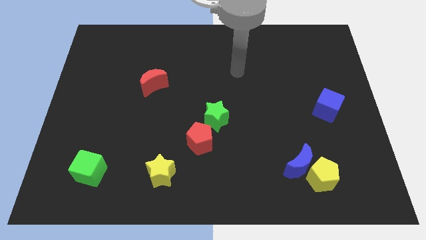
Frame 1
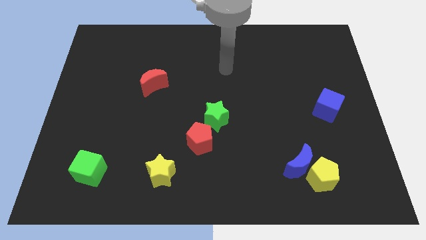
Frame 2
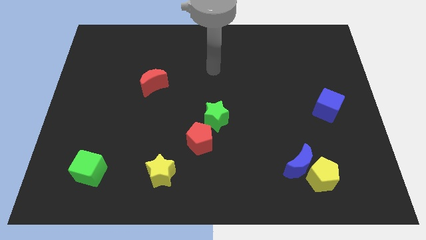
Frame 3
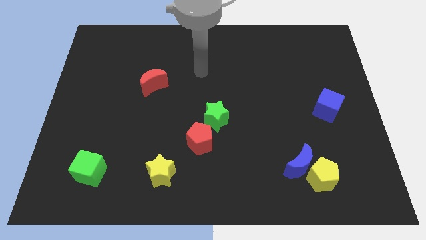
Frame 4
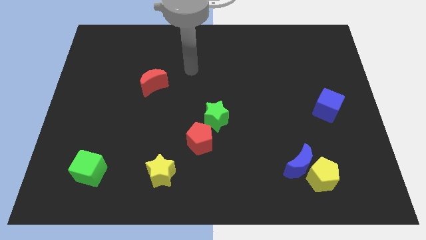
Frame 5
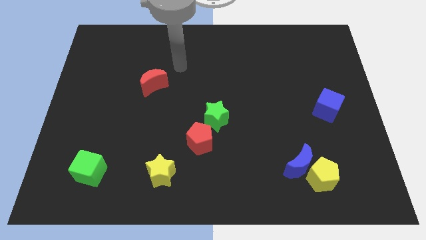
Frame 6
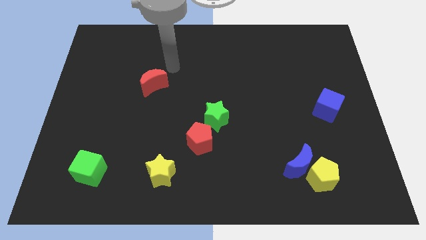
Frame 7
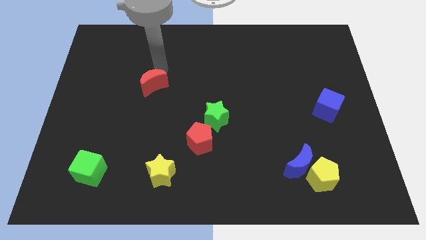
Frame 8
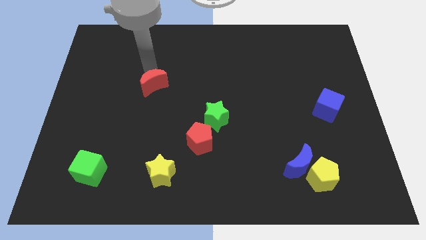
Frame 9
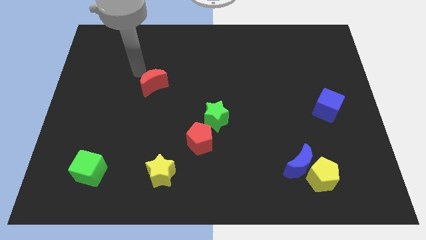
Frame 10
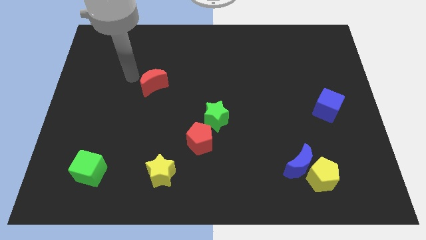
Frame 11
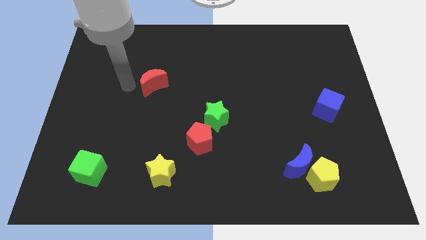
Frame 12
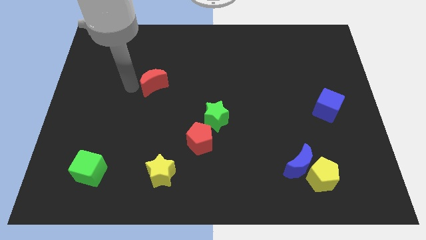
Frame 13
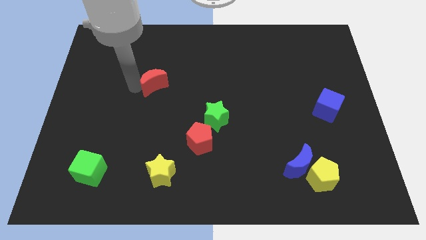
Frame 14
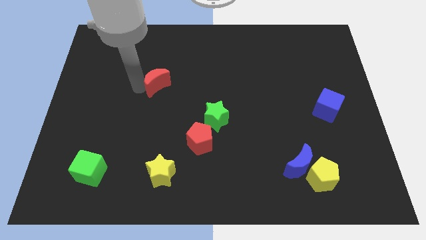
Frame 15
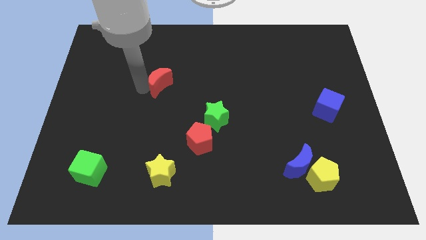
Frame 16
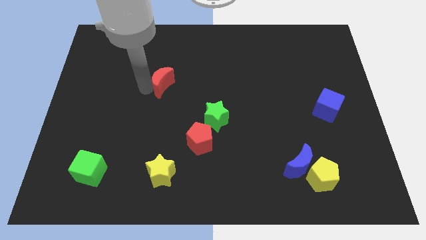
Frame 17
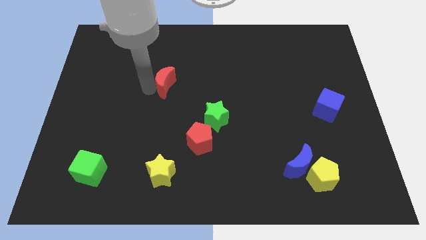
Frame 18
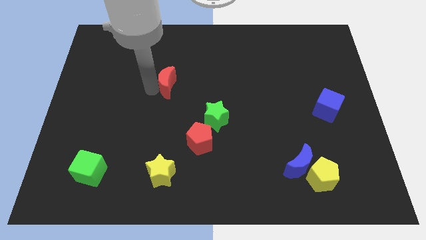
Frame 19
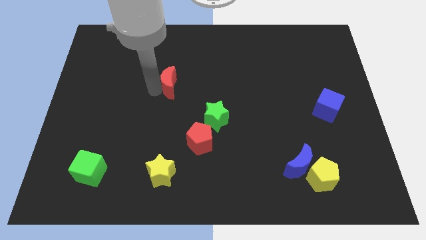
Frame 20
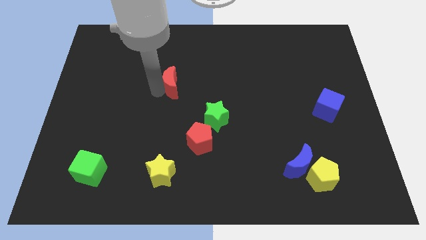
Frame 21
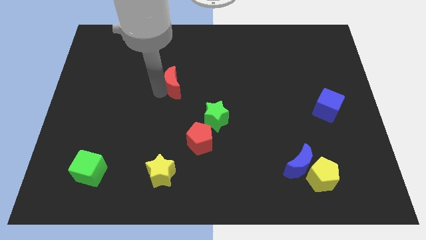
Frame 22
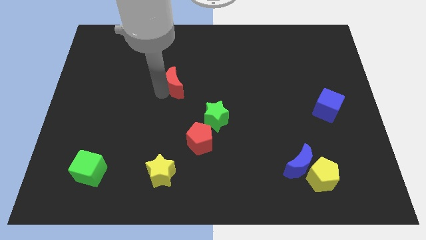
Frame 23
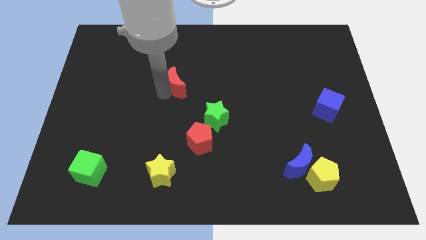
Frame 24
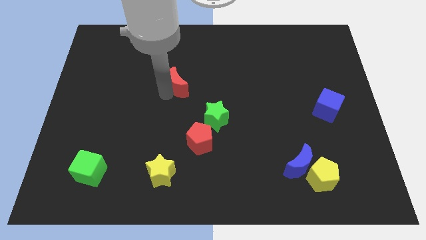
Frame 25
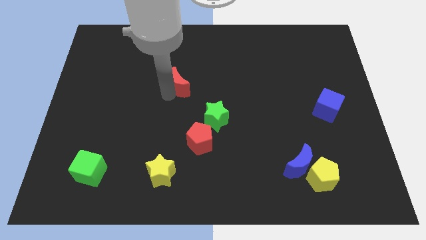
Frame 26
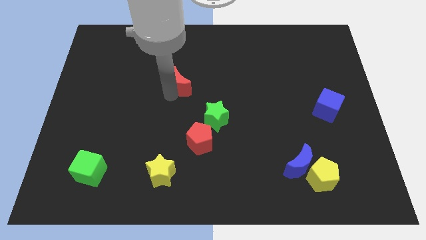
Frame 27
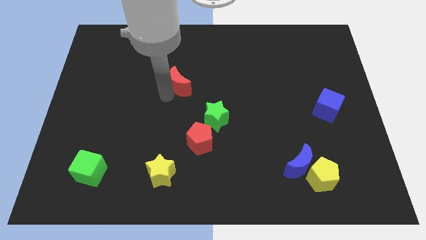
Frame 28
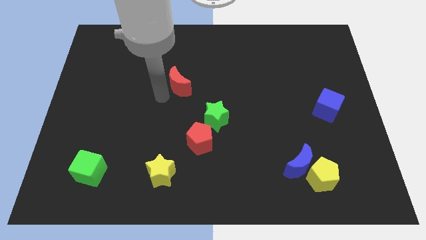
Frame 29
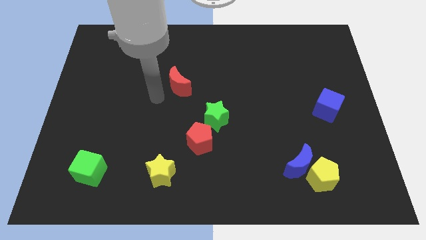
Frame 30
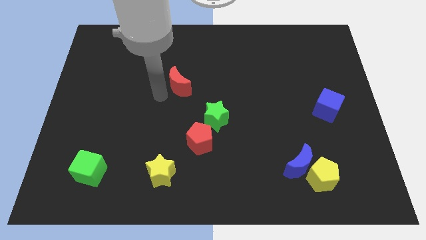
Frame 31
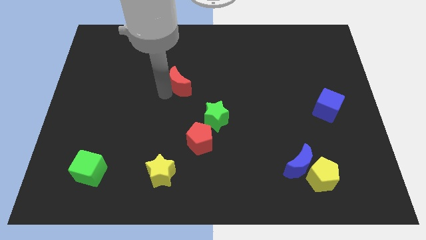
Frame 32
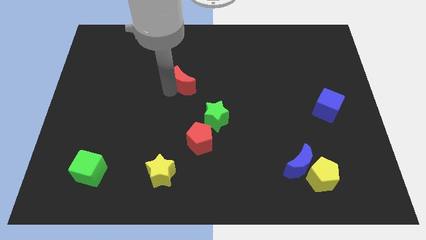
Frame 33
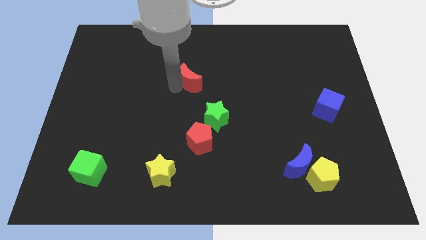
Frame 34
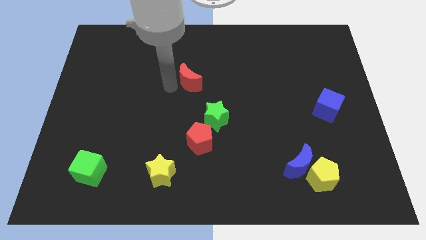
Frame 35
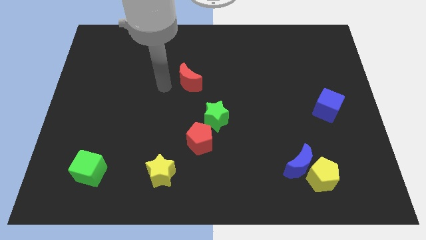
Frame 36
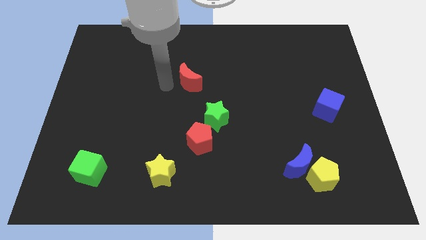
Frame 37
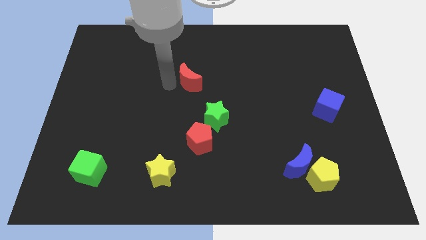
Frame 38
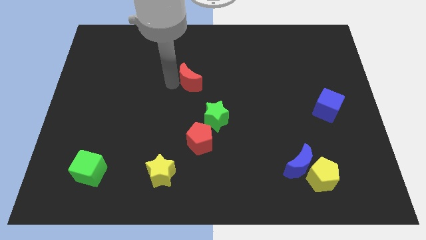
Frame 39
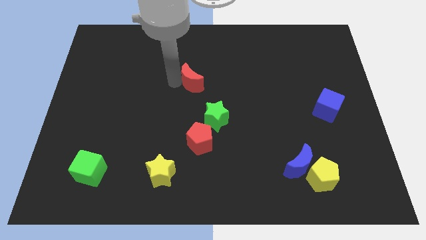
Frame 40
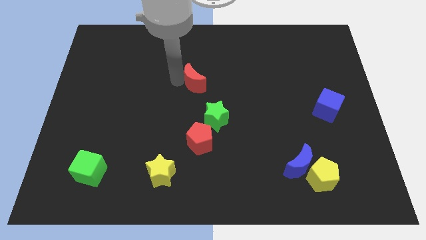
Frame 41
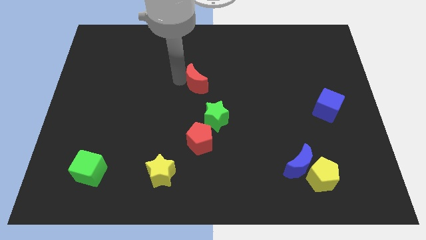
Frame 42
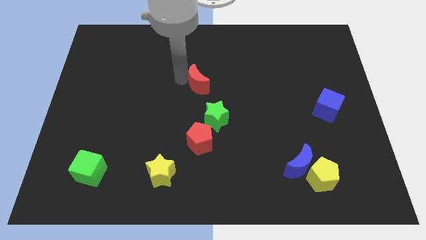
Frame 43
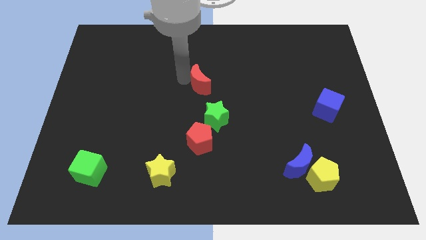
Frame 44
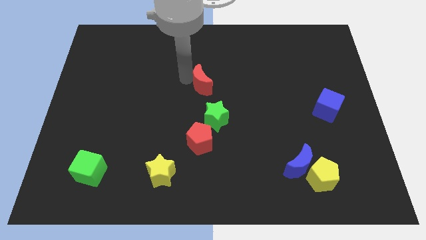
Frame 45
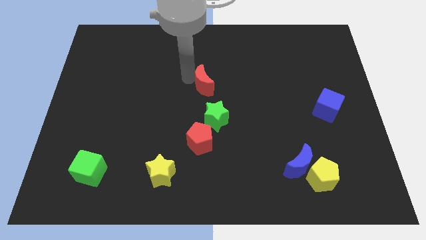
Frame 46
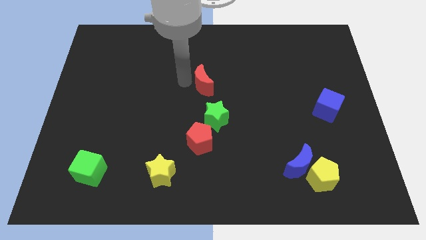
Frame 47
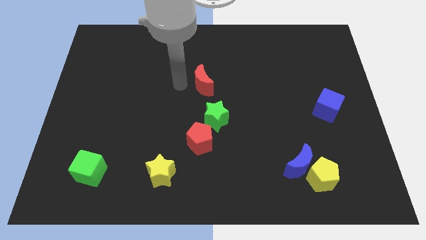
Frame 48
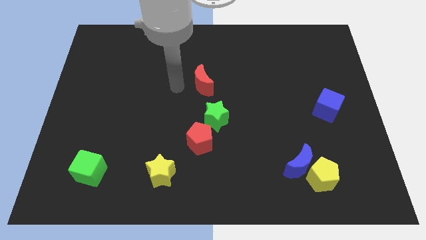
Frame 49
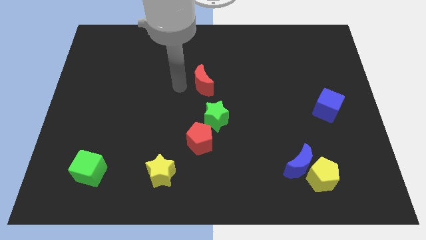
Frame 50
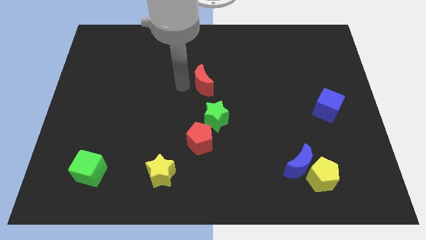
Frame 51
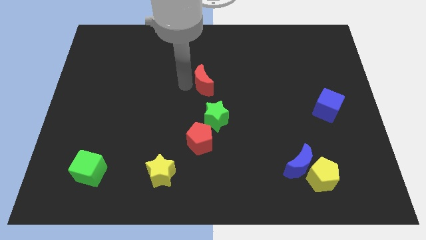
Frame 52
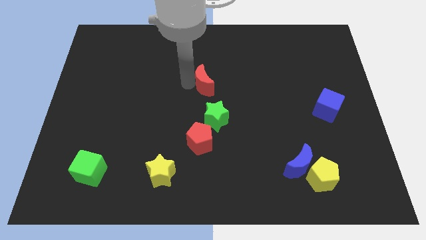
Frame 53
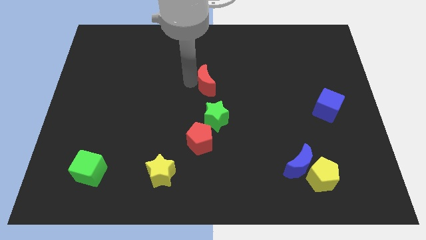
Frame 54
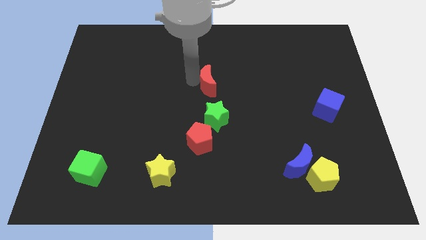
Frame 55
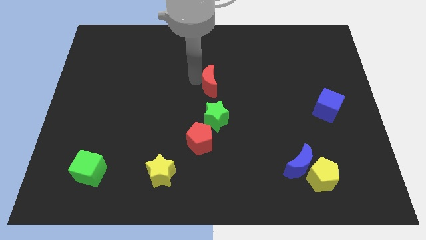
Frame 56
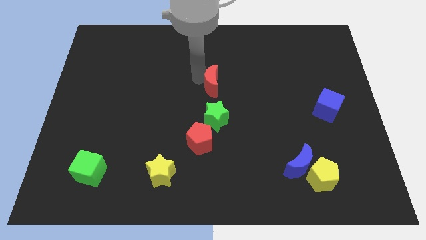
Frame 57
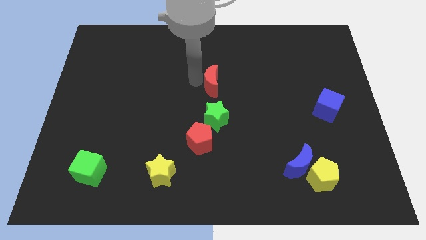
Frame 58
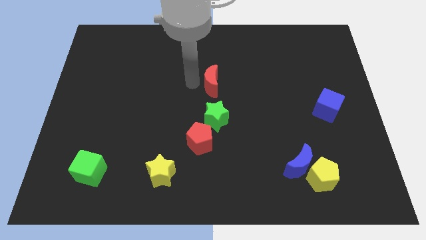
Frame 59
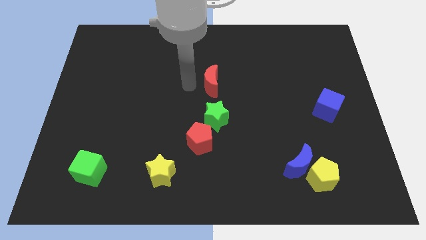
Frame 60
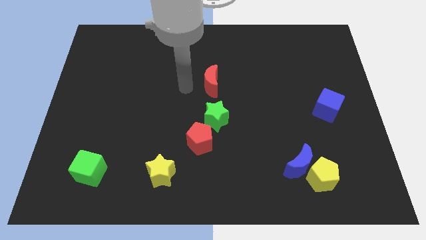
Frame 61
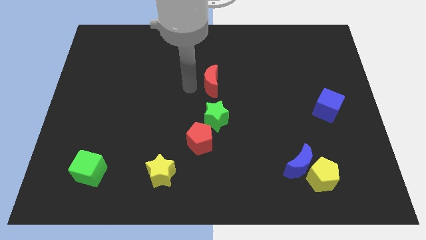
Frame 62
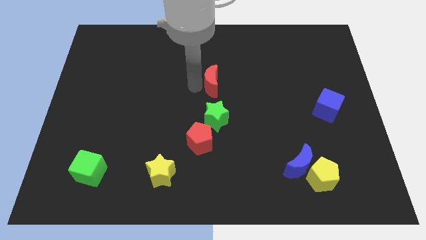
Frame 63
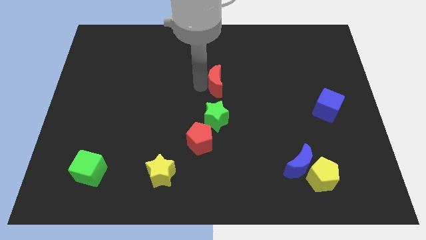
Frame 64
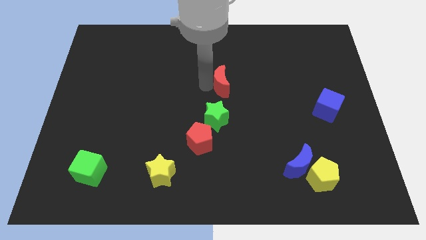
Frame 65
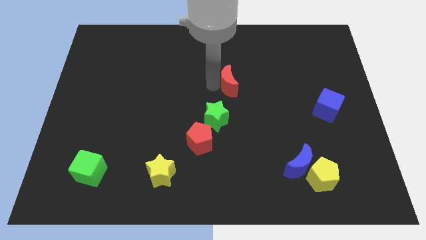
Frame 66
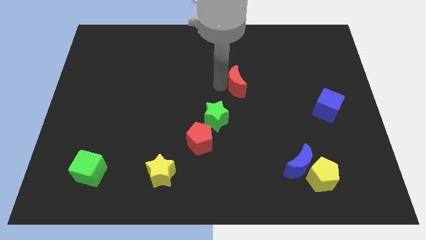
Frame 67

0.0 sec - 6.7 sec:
push the red moon to the right

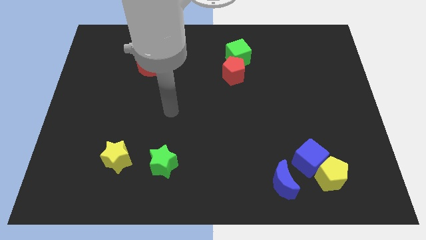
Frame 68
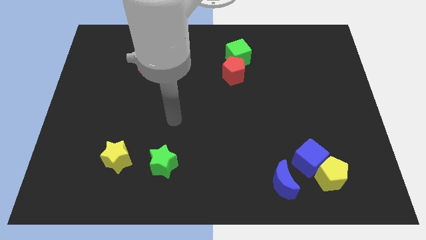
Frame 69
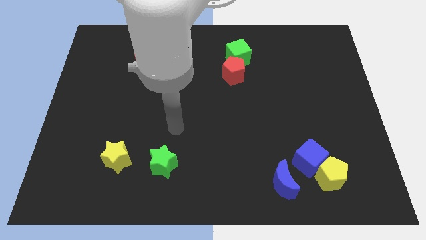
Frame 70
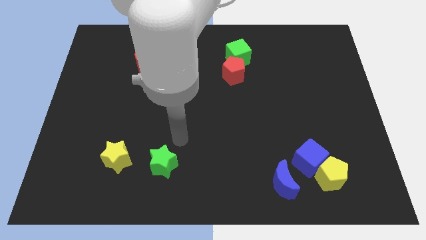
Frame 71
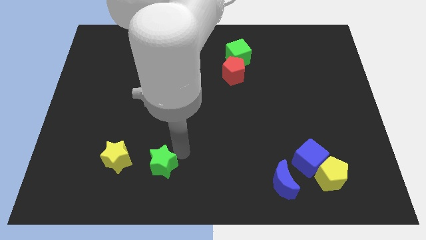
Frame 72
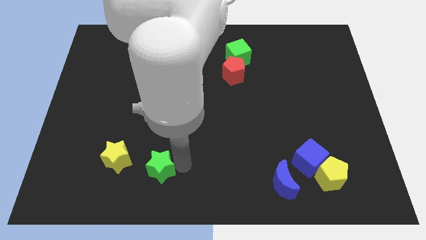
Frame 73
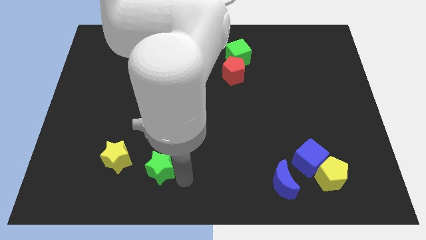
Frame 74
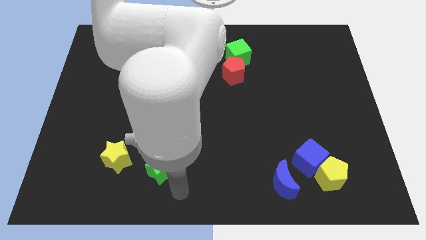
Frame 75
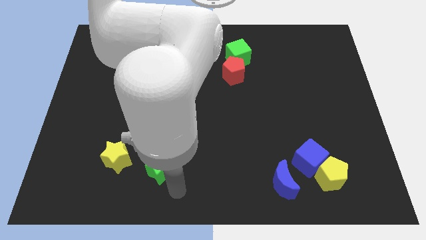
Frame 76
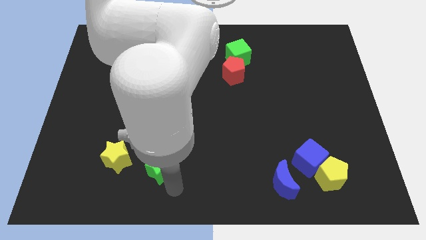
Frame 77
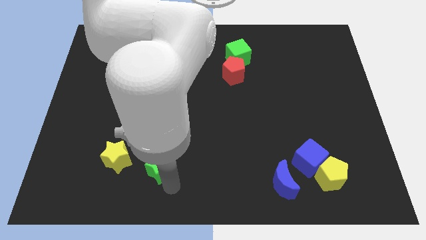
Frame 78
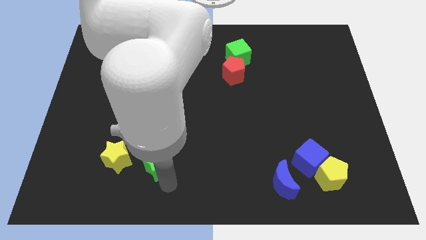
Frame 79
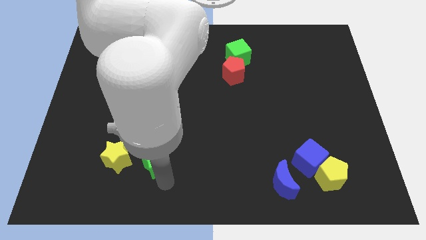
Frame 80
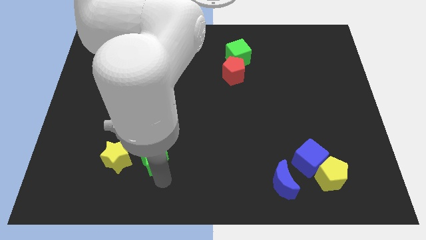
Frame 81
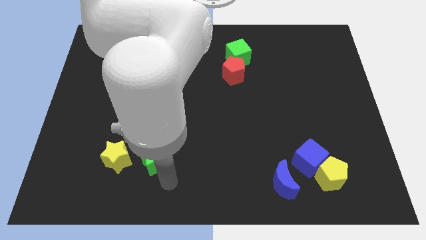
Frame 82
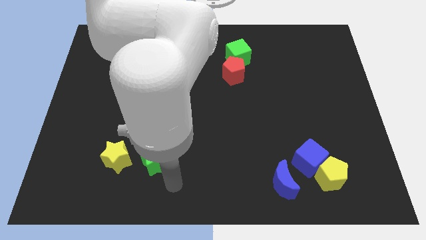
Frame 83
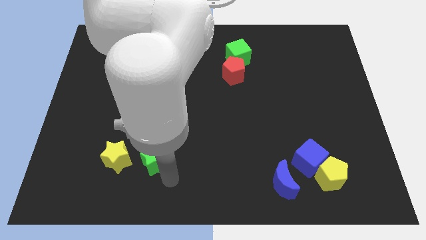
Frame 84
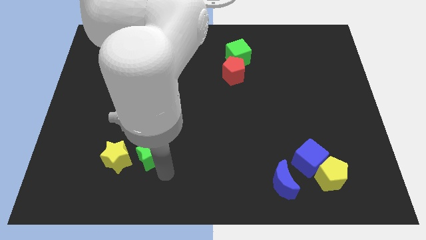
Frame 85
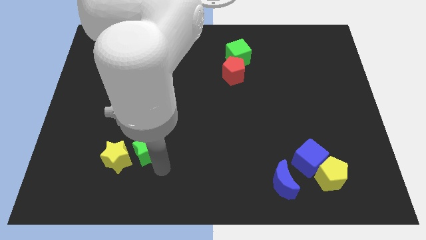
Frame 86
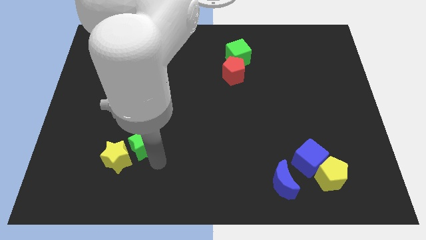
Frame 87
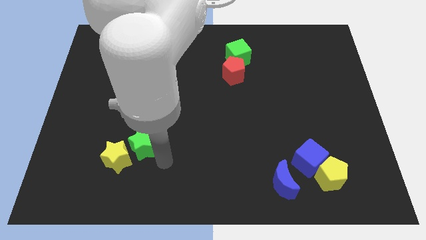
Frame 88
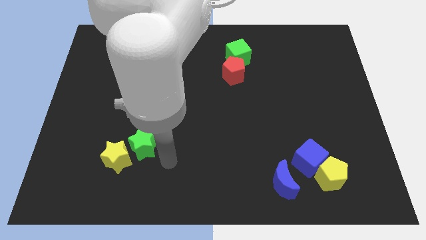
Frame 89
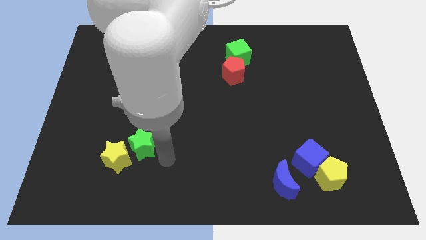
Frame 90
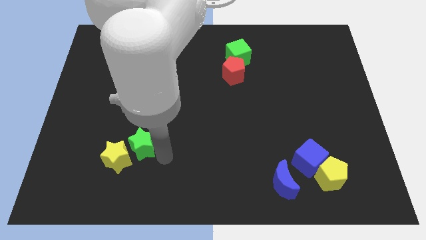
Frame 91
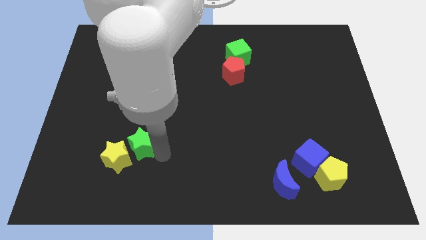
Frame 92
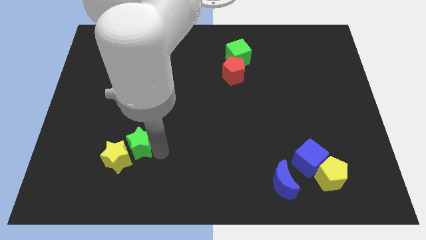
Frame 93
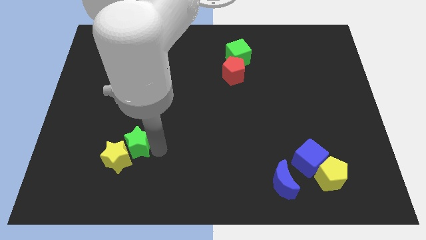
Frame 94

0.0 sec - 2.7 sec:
slightly move the green star upwards and left
